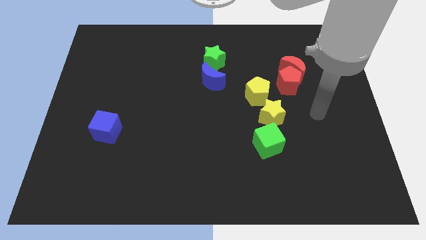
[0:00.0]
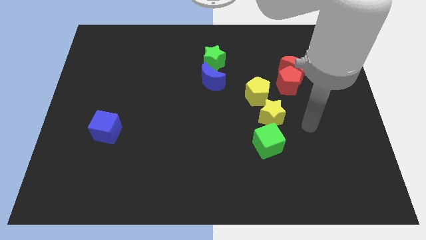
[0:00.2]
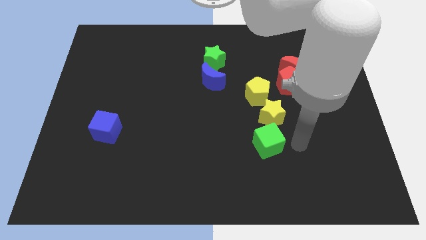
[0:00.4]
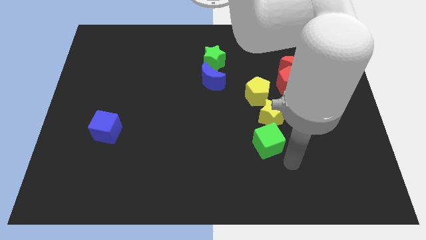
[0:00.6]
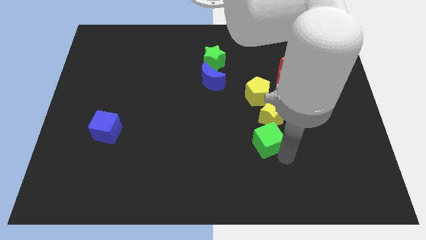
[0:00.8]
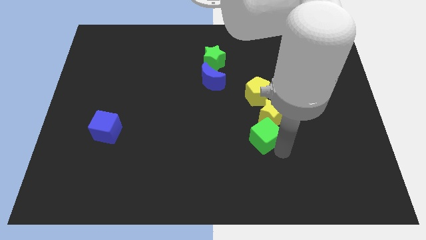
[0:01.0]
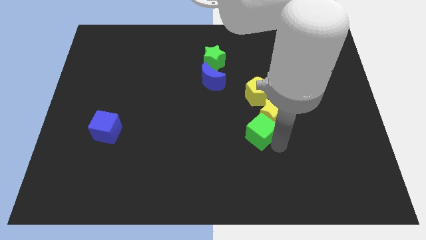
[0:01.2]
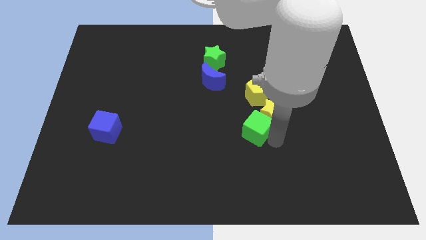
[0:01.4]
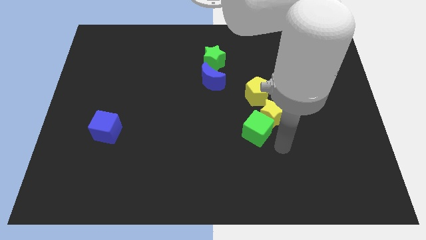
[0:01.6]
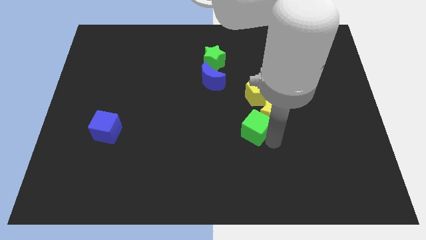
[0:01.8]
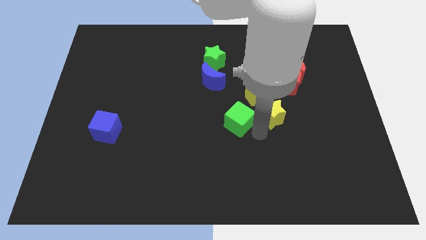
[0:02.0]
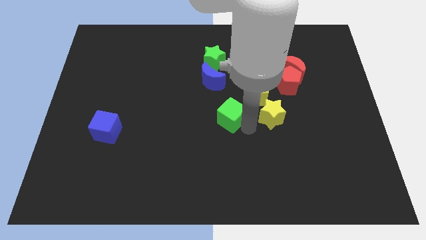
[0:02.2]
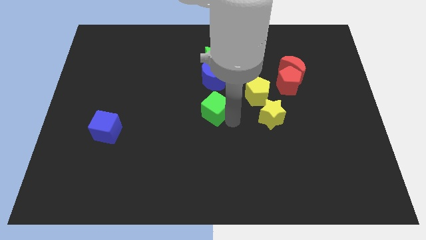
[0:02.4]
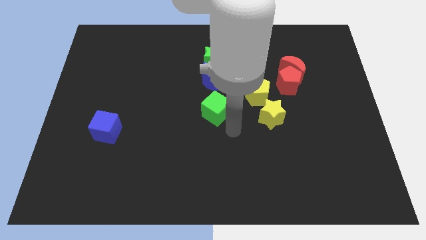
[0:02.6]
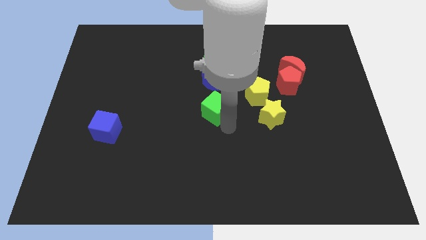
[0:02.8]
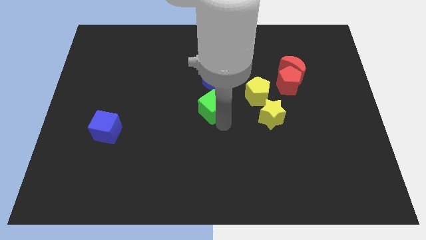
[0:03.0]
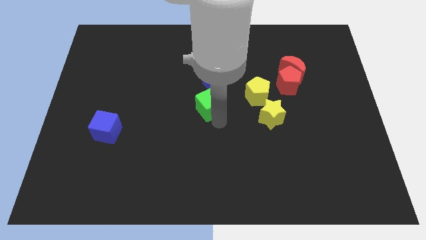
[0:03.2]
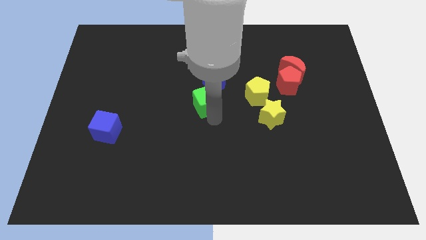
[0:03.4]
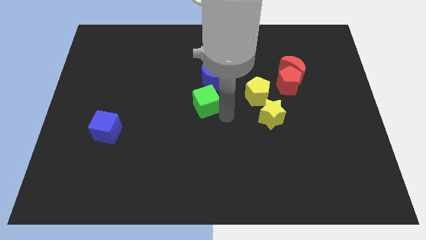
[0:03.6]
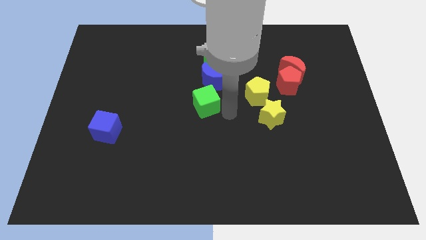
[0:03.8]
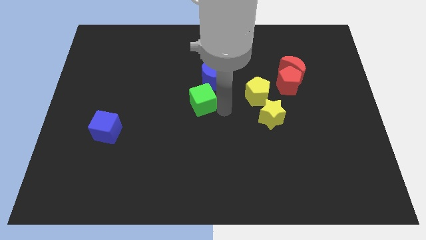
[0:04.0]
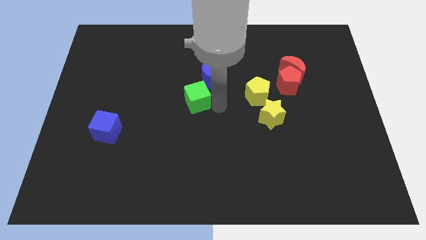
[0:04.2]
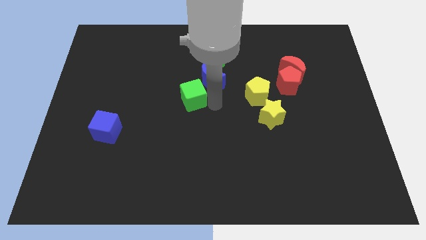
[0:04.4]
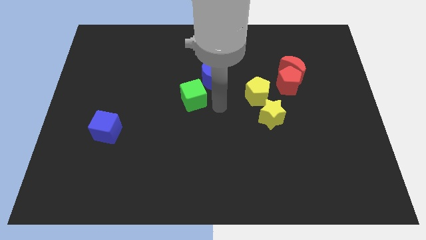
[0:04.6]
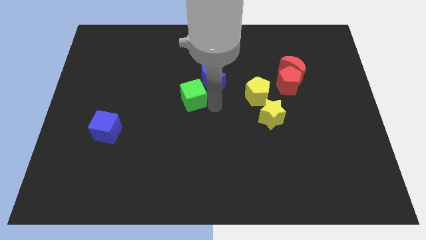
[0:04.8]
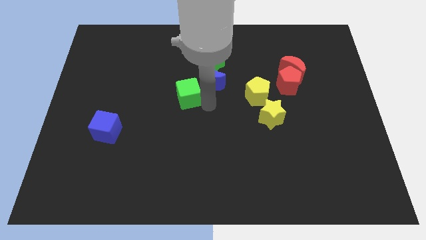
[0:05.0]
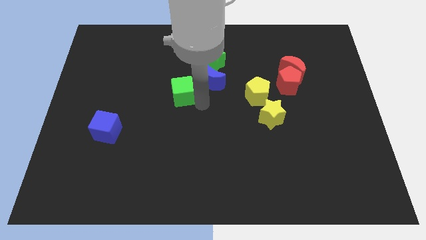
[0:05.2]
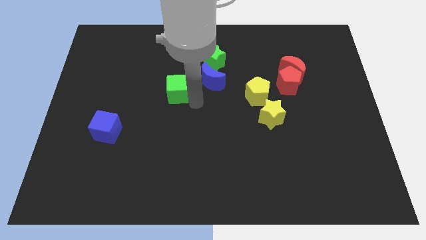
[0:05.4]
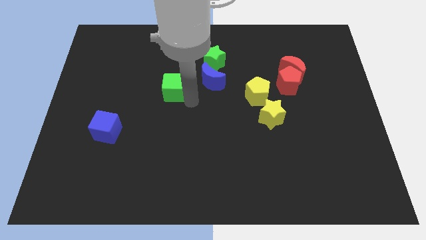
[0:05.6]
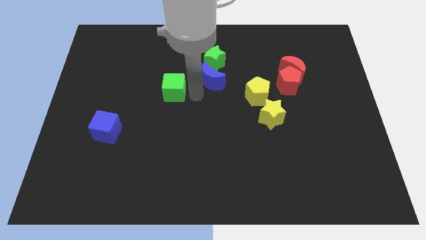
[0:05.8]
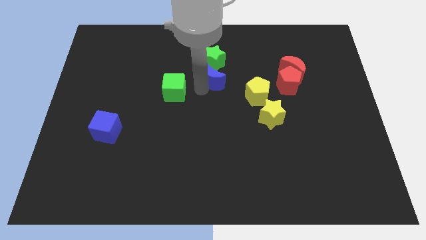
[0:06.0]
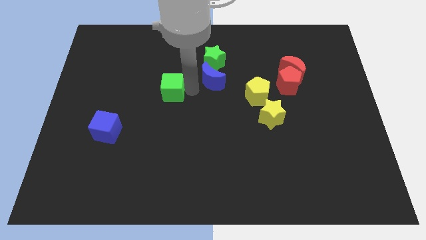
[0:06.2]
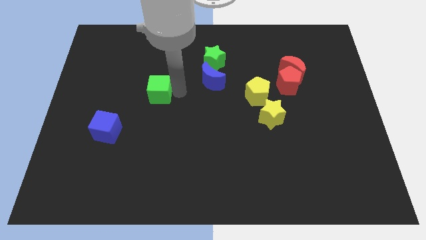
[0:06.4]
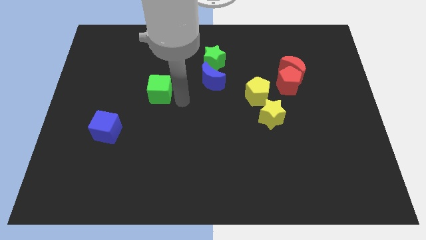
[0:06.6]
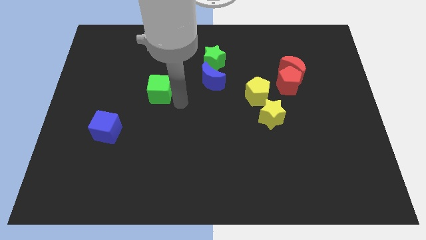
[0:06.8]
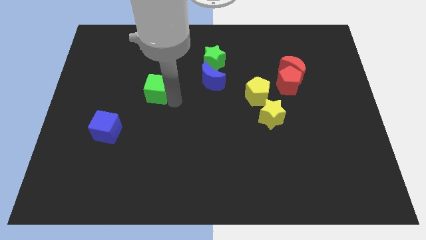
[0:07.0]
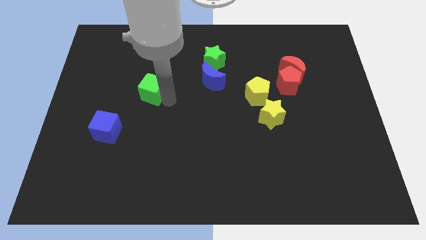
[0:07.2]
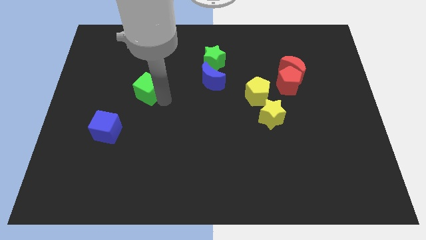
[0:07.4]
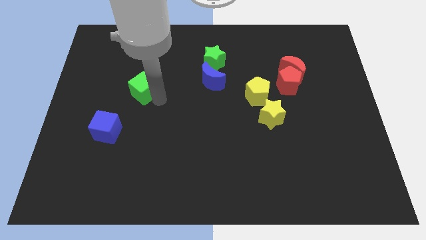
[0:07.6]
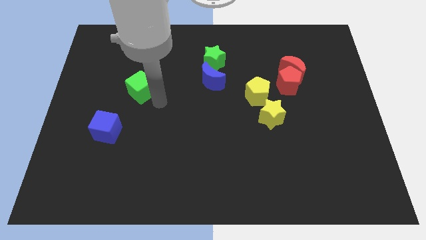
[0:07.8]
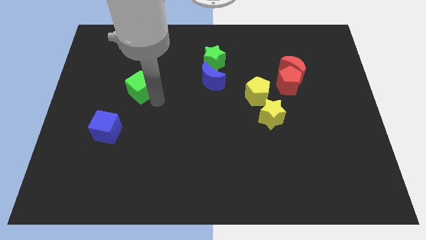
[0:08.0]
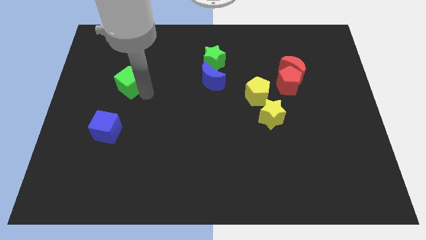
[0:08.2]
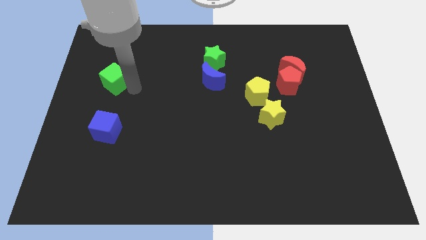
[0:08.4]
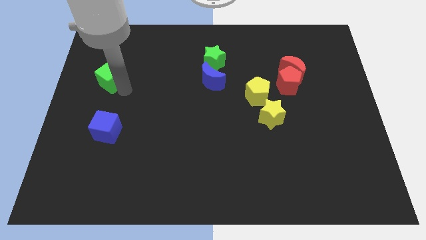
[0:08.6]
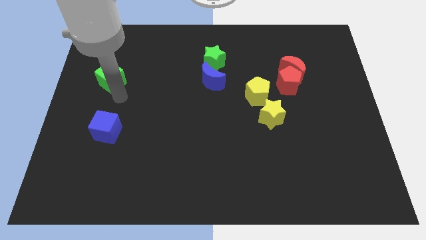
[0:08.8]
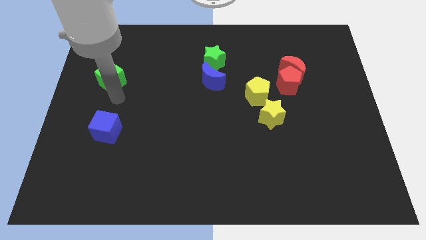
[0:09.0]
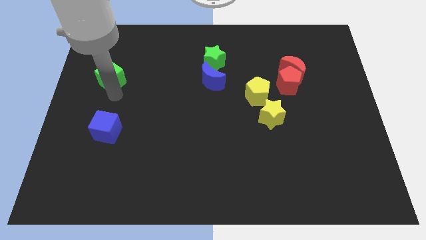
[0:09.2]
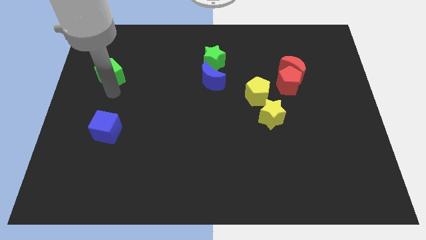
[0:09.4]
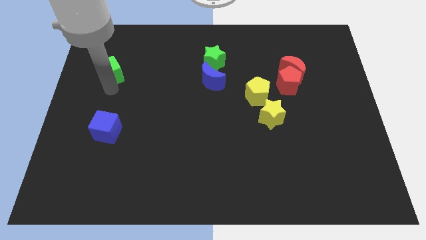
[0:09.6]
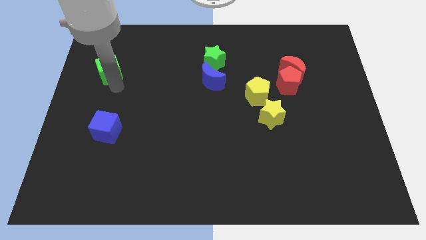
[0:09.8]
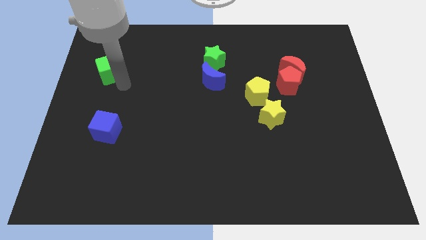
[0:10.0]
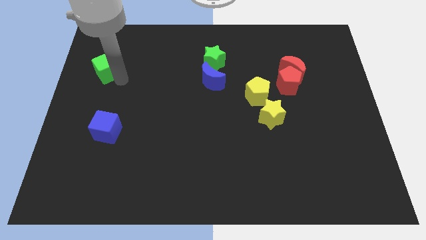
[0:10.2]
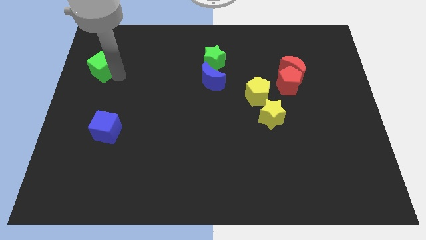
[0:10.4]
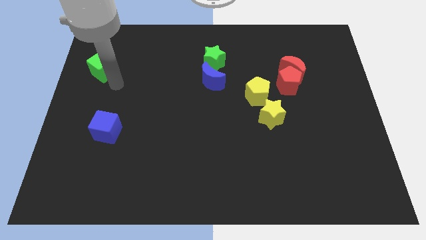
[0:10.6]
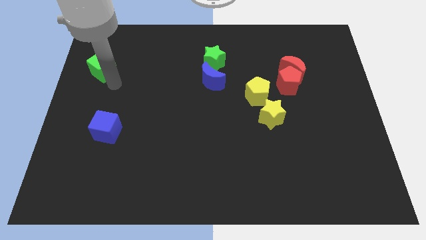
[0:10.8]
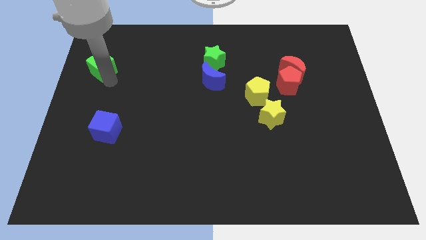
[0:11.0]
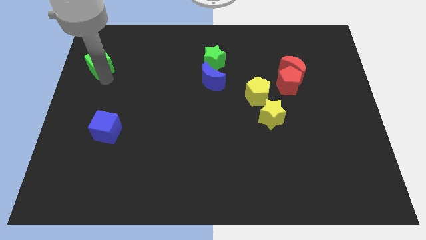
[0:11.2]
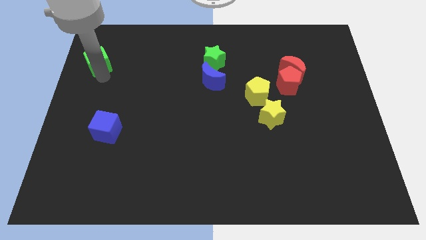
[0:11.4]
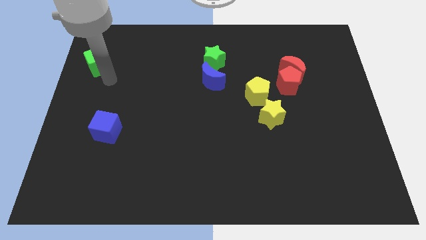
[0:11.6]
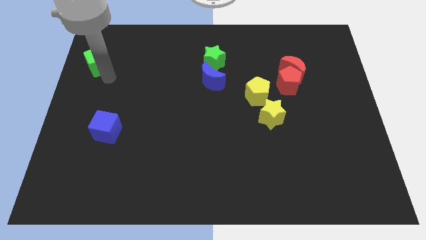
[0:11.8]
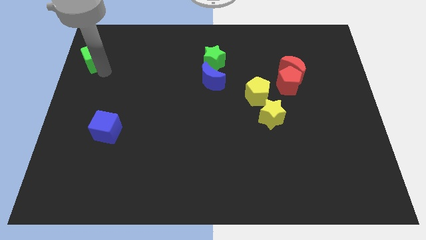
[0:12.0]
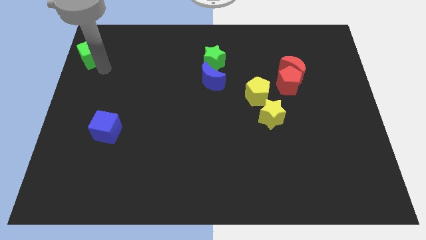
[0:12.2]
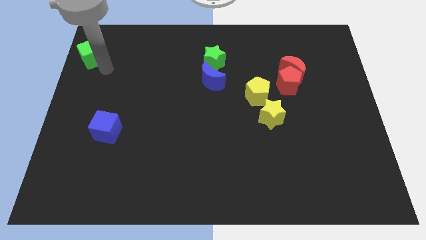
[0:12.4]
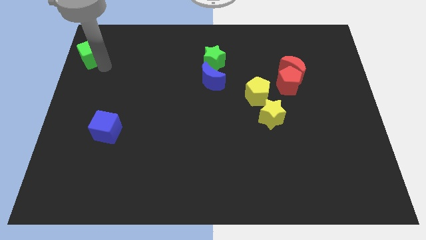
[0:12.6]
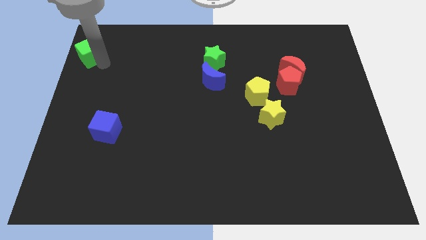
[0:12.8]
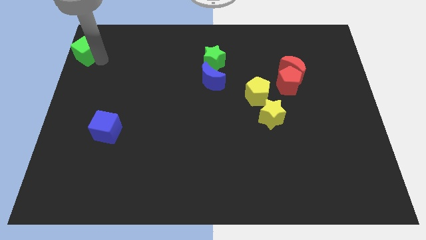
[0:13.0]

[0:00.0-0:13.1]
push the green cube to the top left of the board
